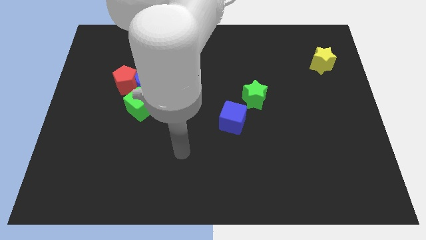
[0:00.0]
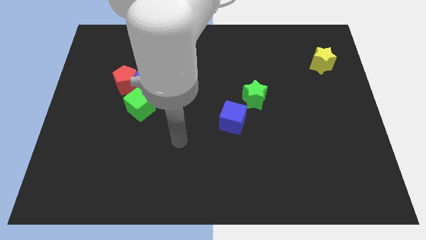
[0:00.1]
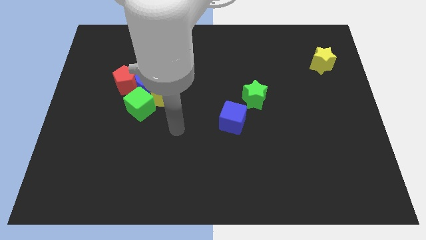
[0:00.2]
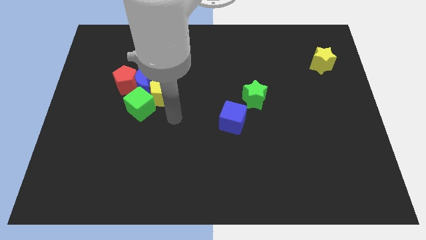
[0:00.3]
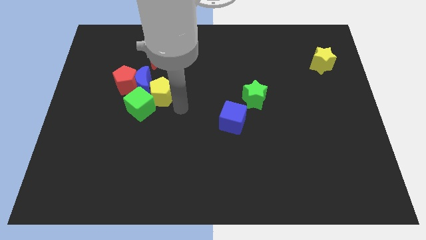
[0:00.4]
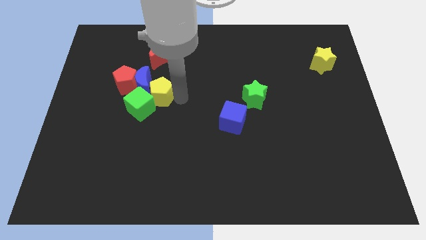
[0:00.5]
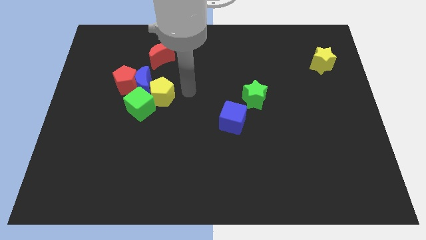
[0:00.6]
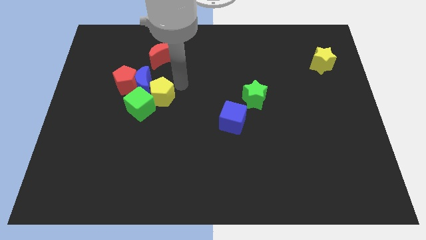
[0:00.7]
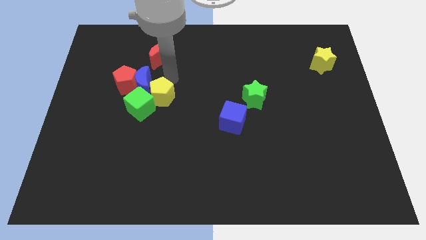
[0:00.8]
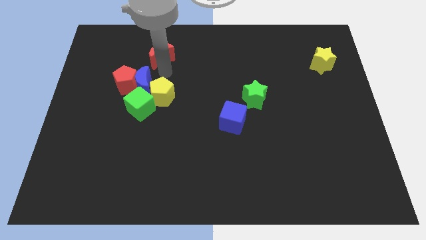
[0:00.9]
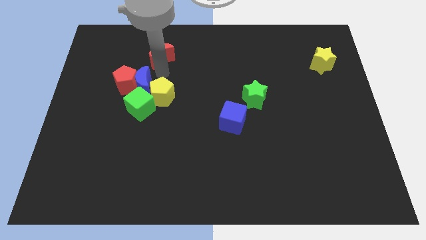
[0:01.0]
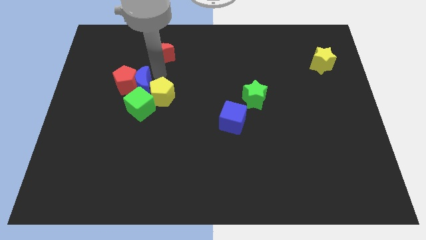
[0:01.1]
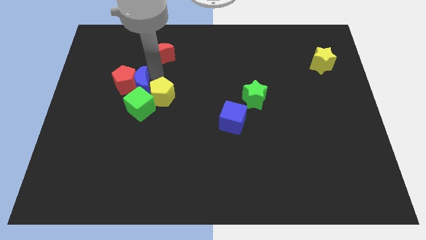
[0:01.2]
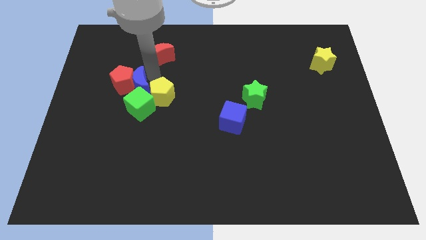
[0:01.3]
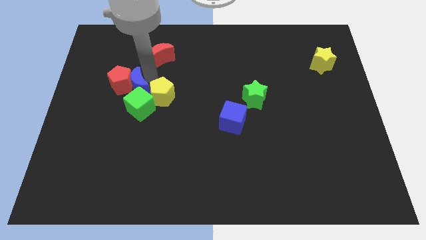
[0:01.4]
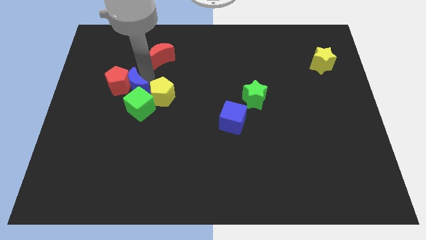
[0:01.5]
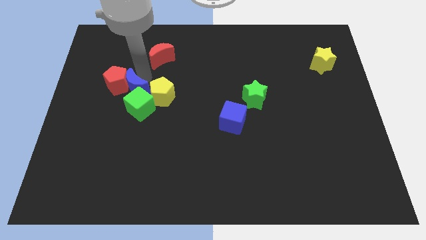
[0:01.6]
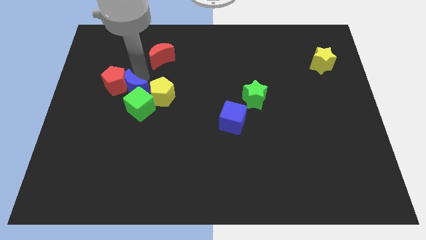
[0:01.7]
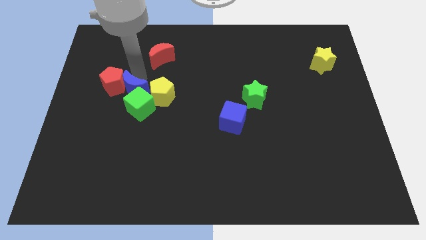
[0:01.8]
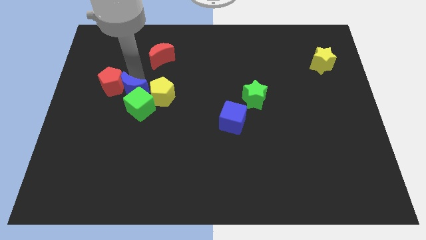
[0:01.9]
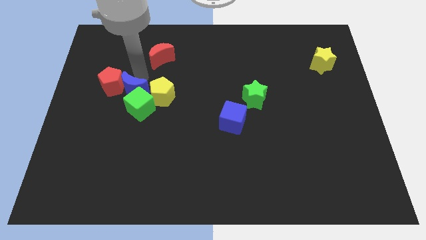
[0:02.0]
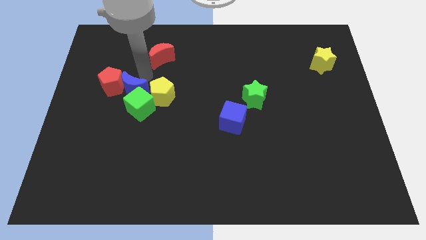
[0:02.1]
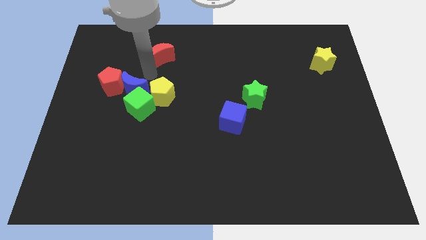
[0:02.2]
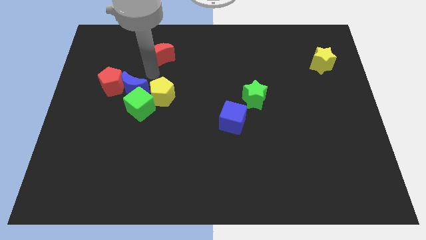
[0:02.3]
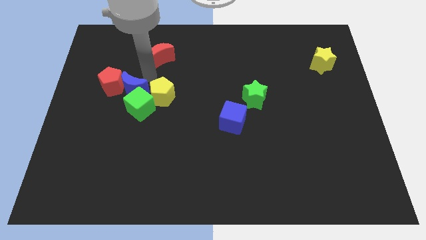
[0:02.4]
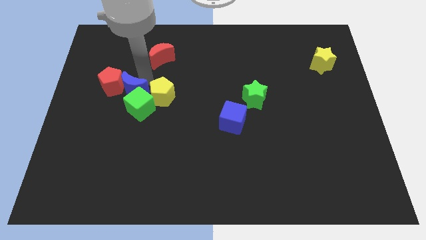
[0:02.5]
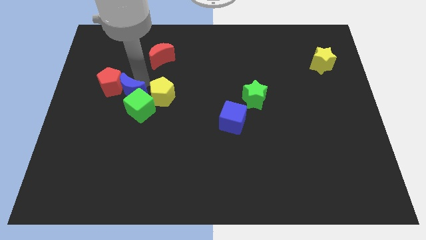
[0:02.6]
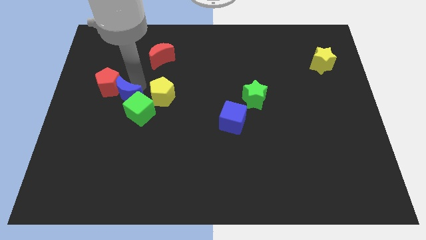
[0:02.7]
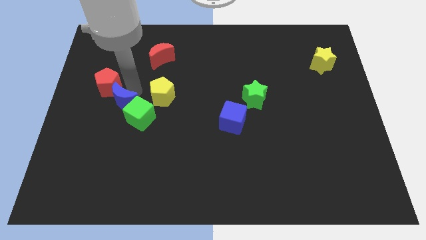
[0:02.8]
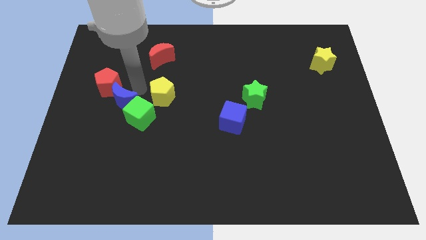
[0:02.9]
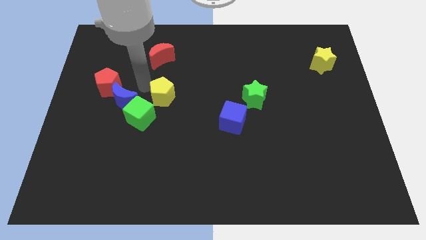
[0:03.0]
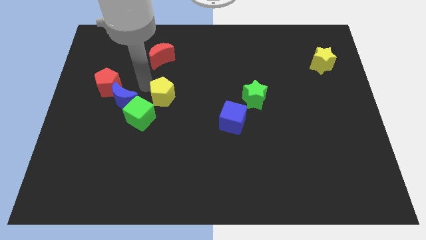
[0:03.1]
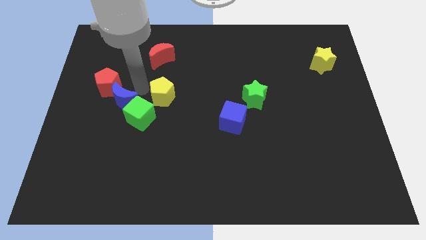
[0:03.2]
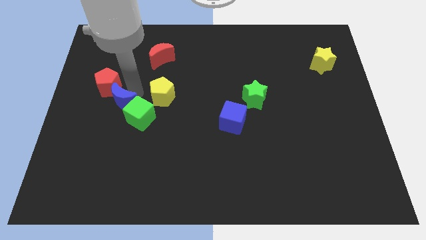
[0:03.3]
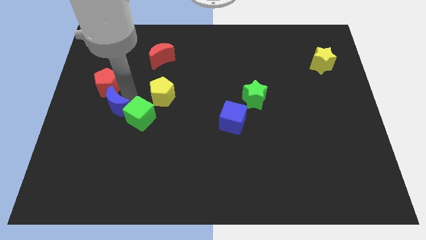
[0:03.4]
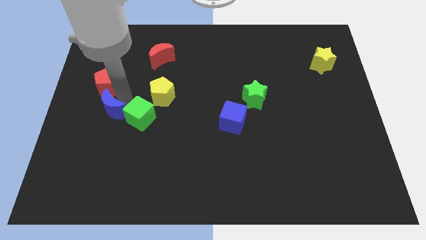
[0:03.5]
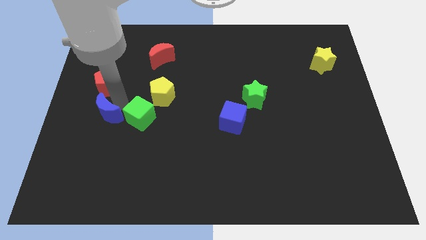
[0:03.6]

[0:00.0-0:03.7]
move the blue moon away from the group

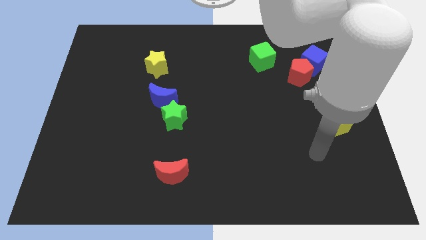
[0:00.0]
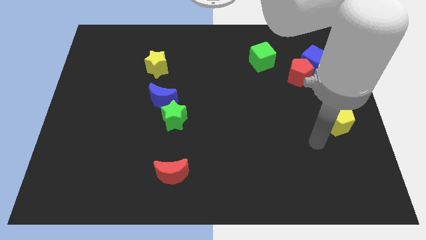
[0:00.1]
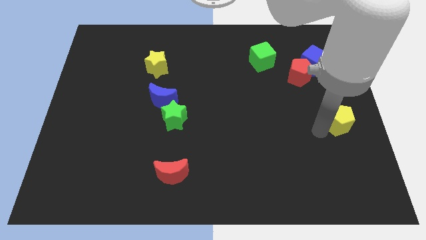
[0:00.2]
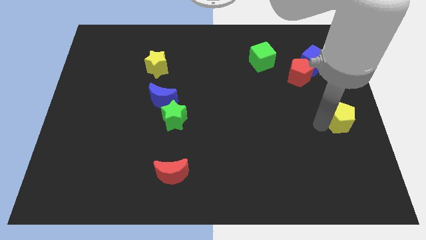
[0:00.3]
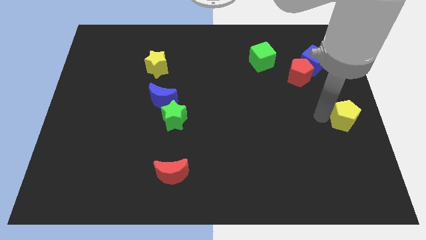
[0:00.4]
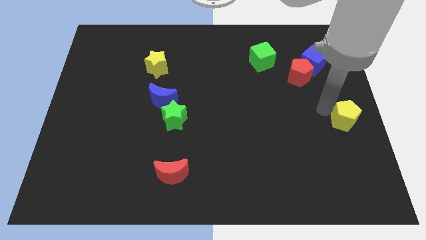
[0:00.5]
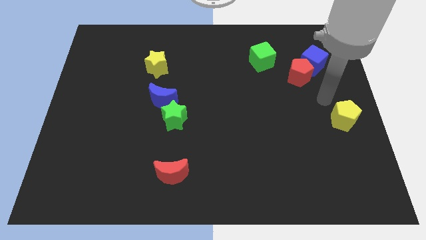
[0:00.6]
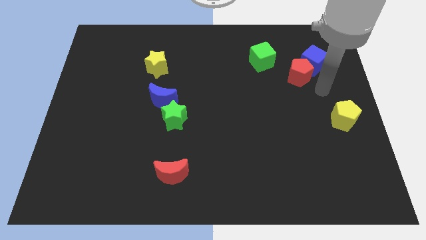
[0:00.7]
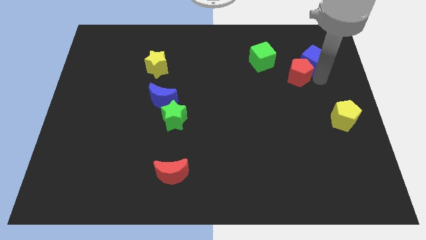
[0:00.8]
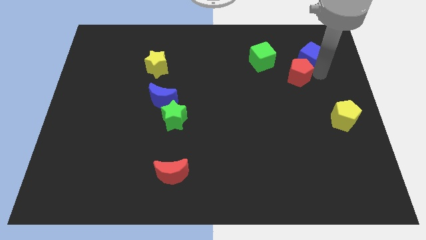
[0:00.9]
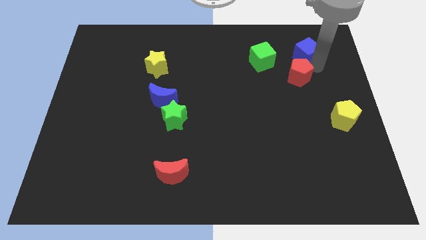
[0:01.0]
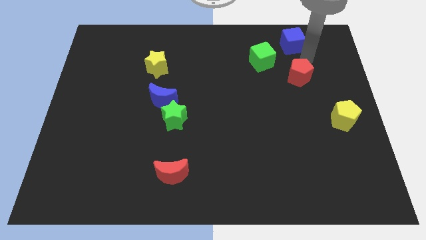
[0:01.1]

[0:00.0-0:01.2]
move the red pentagon away from the blue cube

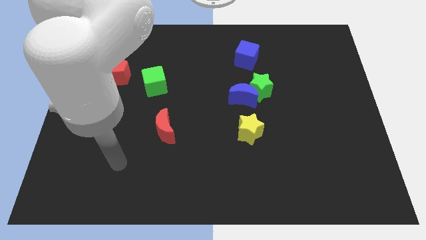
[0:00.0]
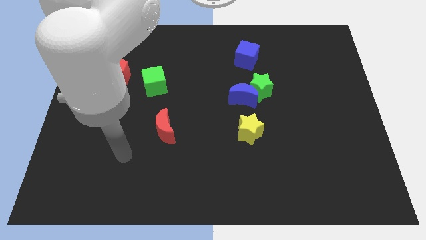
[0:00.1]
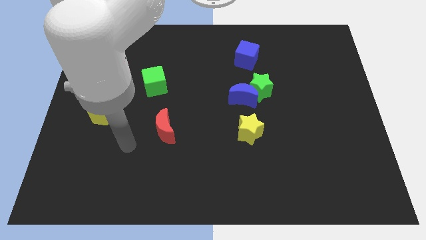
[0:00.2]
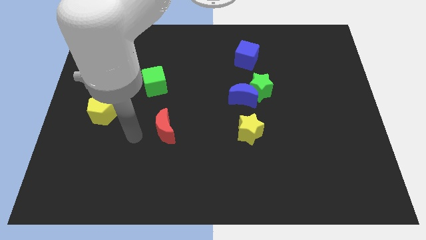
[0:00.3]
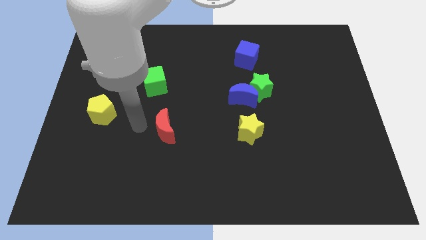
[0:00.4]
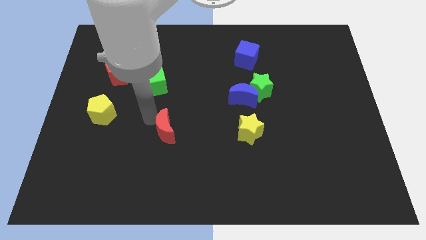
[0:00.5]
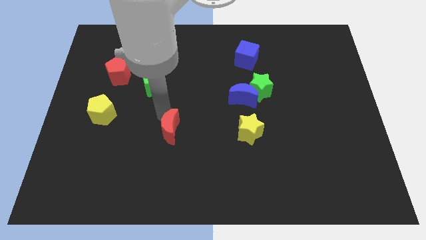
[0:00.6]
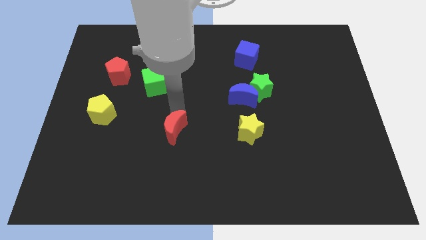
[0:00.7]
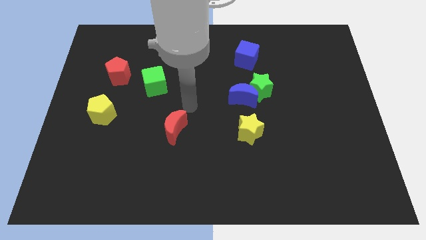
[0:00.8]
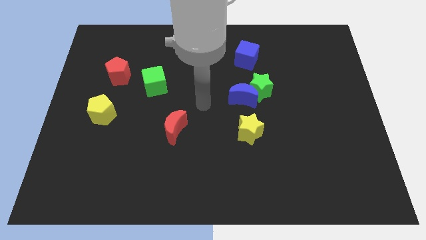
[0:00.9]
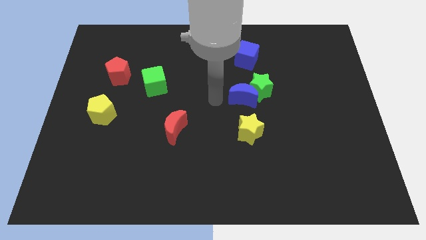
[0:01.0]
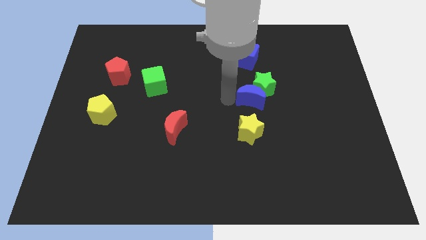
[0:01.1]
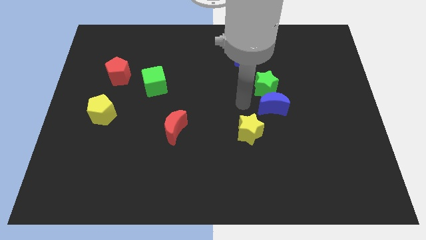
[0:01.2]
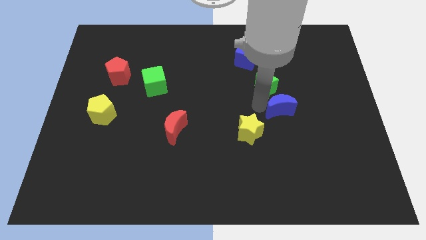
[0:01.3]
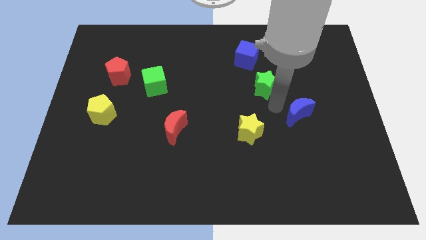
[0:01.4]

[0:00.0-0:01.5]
move the green star away from the blue moon

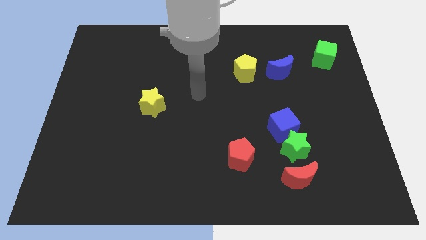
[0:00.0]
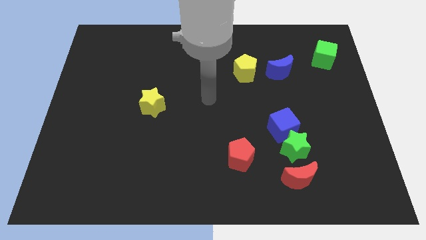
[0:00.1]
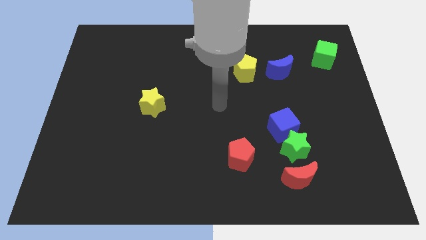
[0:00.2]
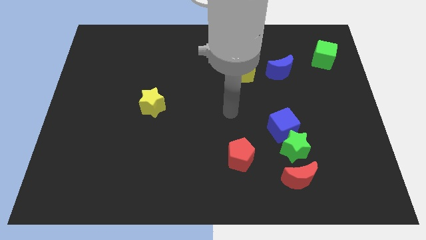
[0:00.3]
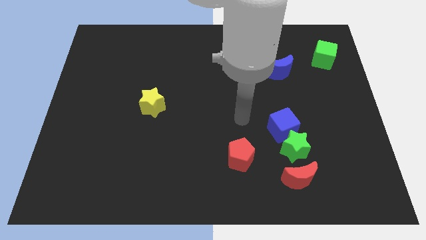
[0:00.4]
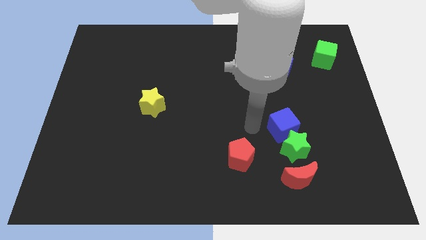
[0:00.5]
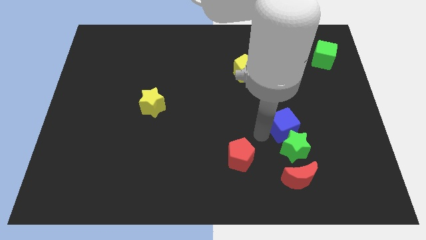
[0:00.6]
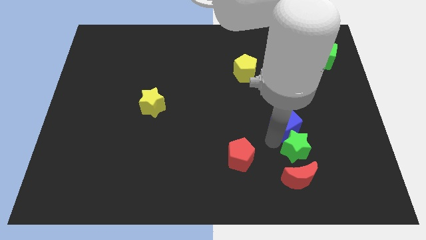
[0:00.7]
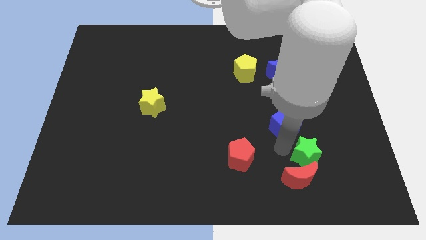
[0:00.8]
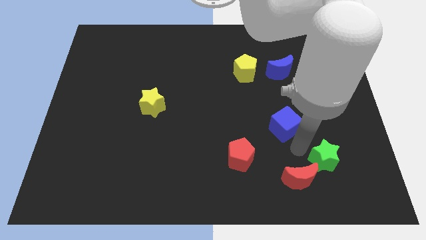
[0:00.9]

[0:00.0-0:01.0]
move the blue cube away from the green star

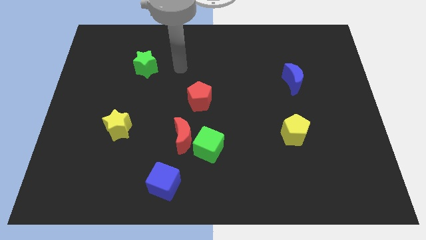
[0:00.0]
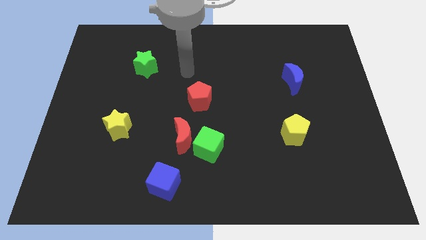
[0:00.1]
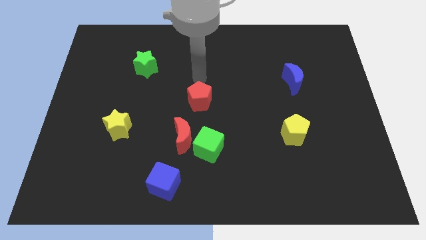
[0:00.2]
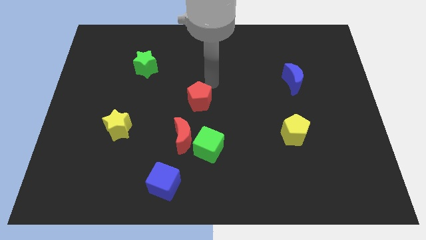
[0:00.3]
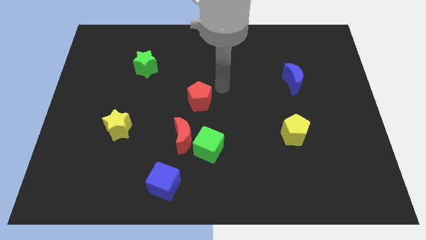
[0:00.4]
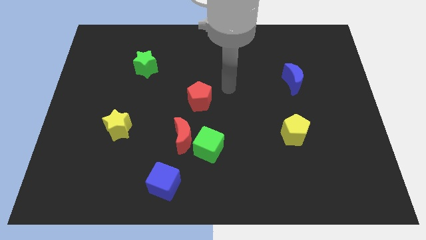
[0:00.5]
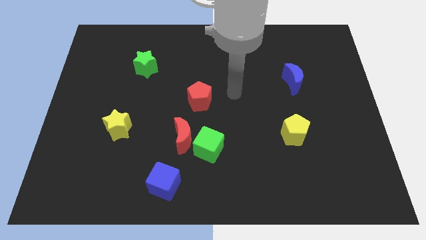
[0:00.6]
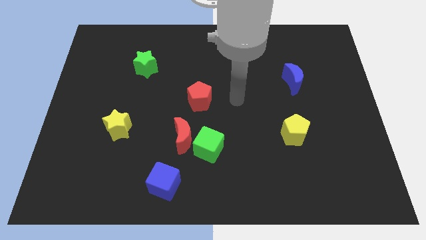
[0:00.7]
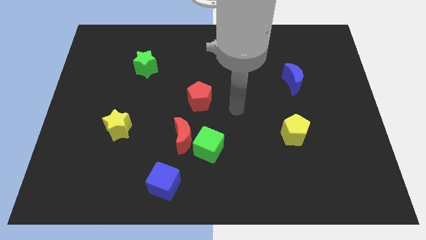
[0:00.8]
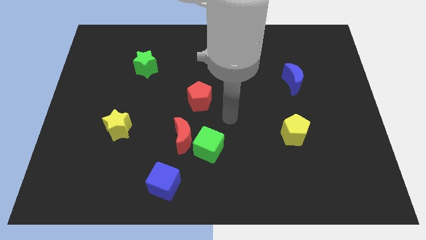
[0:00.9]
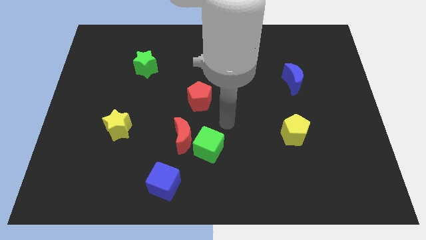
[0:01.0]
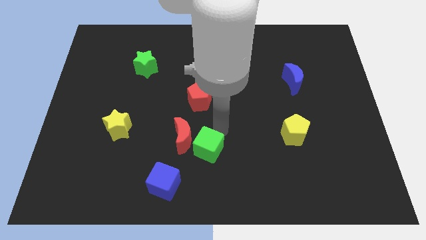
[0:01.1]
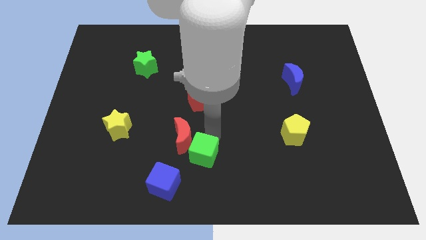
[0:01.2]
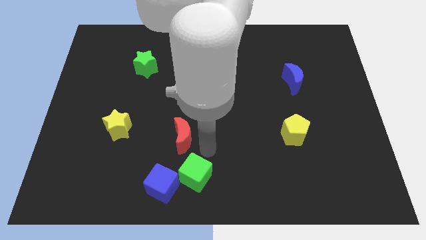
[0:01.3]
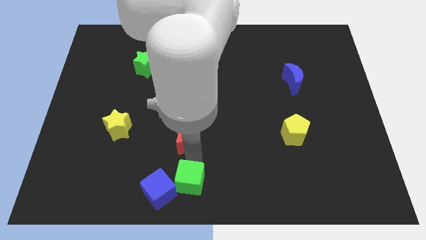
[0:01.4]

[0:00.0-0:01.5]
separate the red moon from the green cube

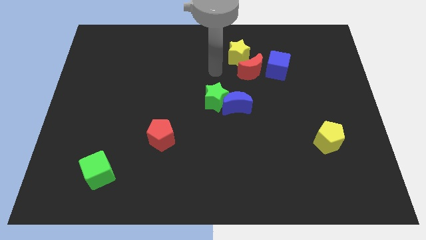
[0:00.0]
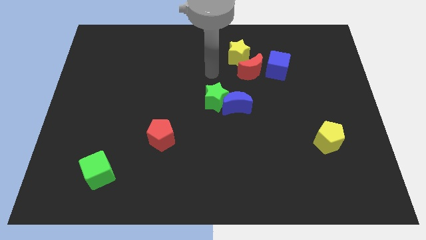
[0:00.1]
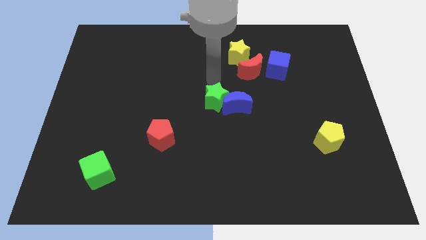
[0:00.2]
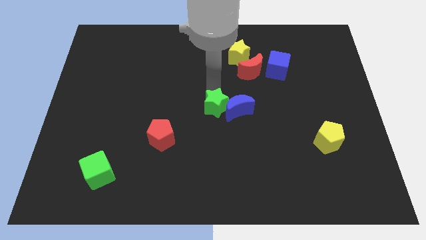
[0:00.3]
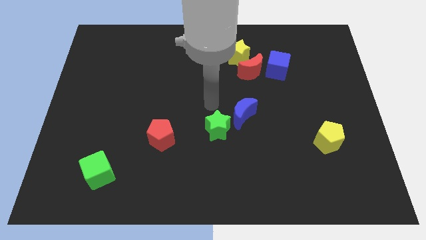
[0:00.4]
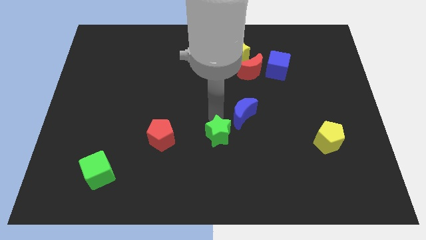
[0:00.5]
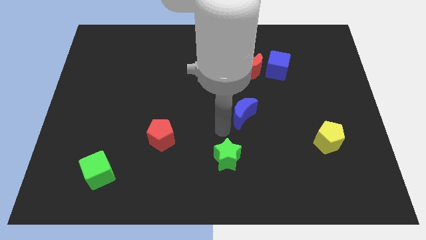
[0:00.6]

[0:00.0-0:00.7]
pull the blue moon apart from the green star
